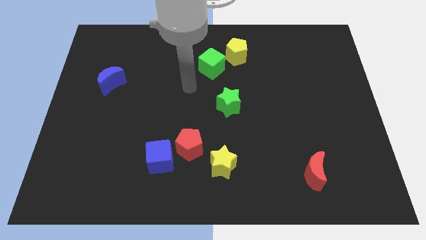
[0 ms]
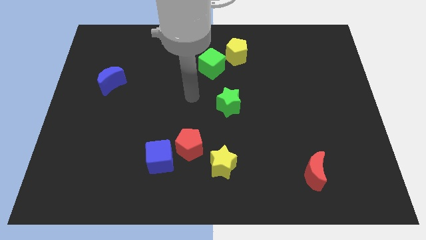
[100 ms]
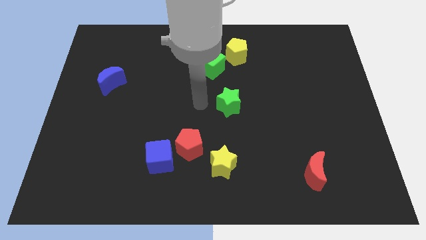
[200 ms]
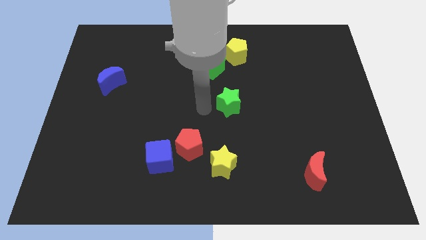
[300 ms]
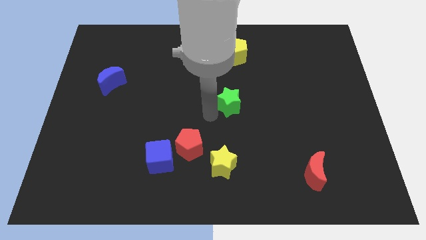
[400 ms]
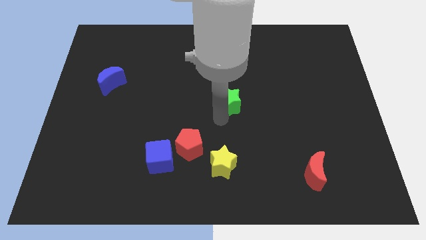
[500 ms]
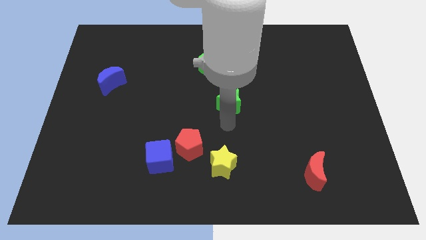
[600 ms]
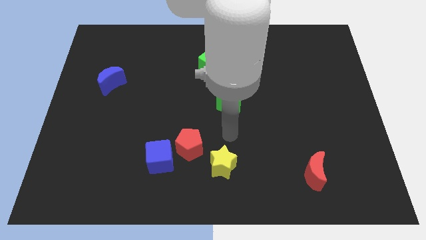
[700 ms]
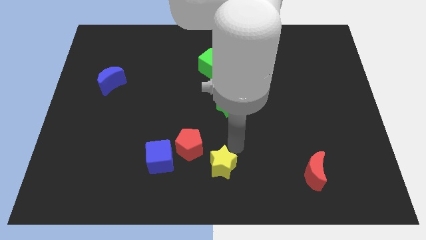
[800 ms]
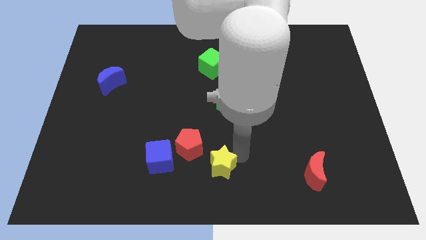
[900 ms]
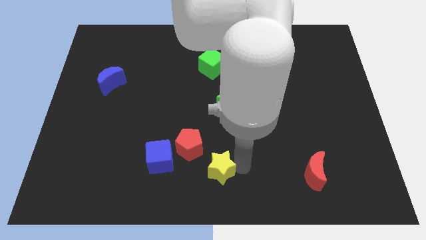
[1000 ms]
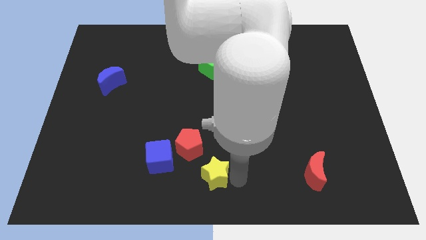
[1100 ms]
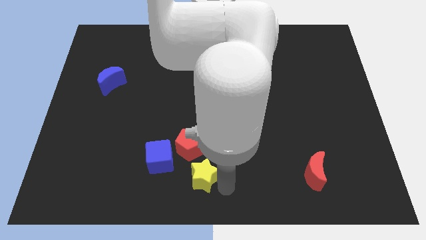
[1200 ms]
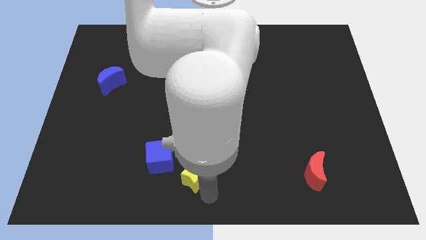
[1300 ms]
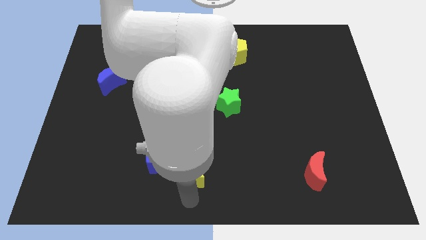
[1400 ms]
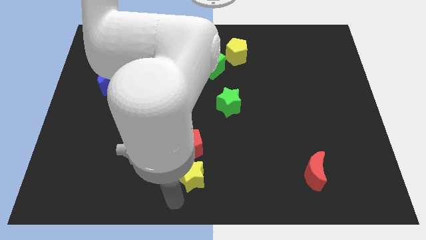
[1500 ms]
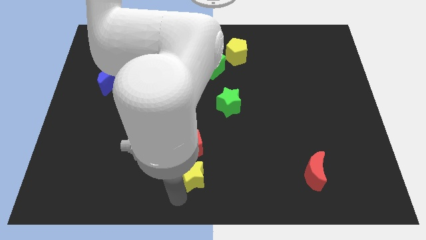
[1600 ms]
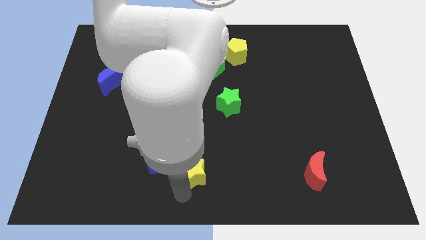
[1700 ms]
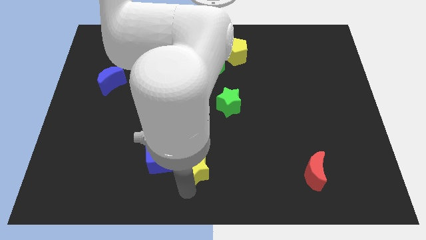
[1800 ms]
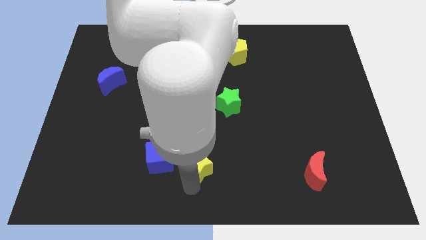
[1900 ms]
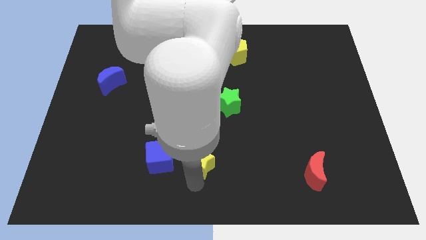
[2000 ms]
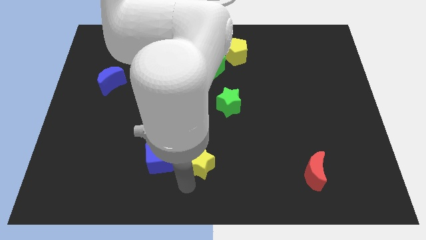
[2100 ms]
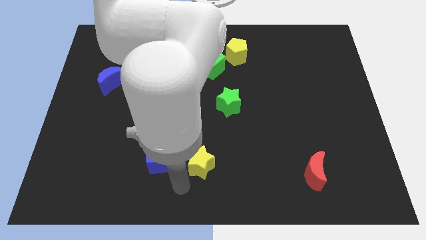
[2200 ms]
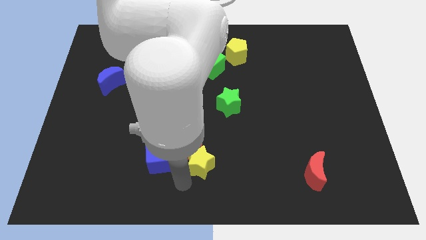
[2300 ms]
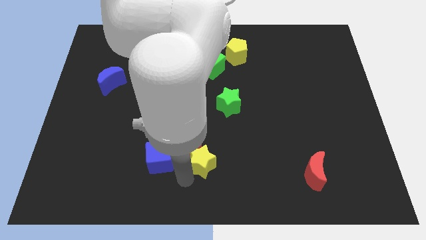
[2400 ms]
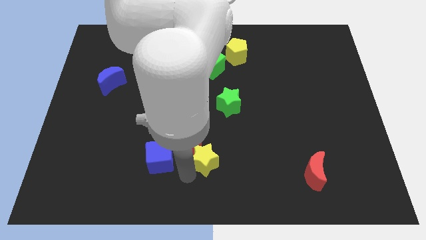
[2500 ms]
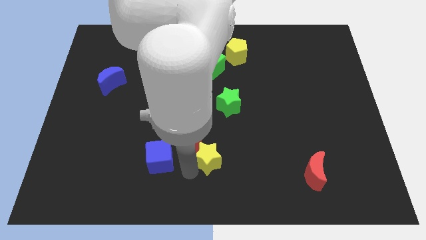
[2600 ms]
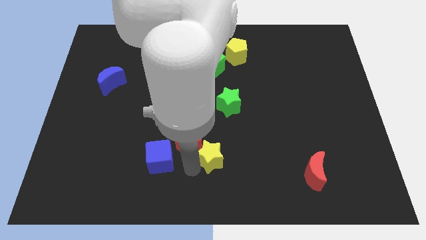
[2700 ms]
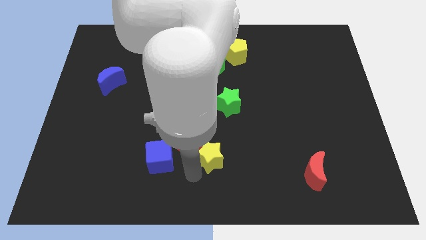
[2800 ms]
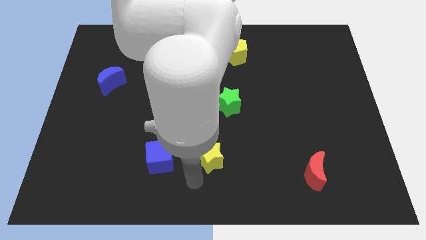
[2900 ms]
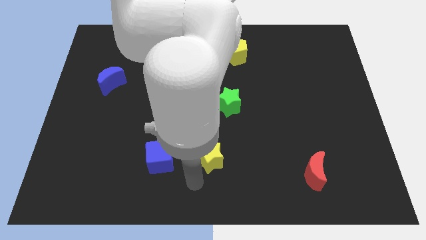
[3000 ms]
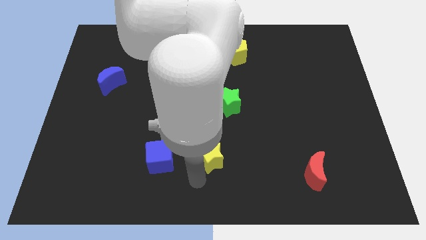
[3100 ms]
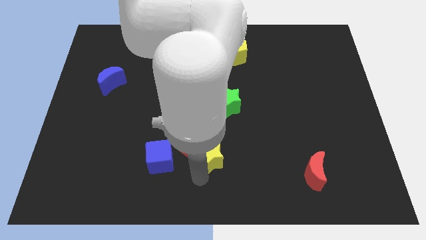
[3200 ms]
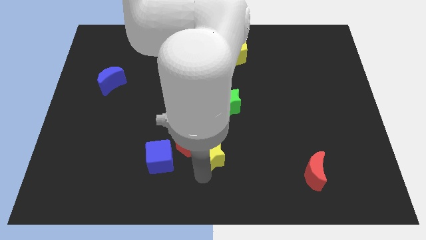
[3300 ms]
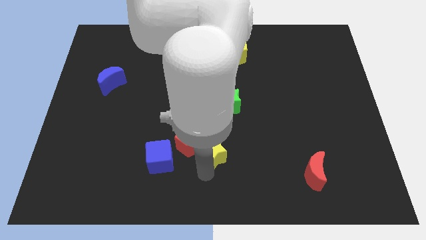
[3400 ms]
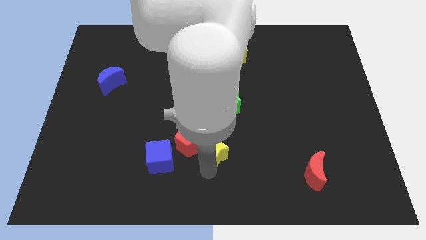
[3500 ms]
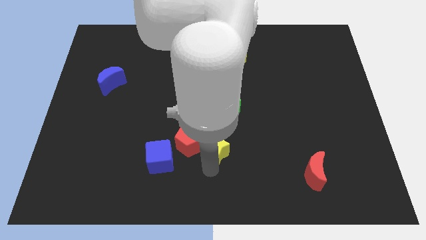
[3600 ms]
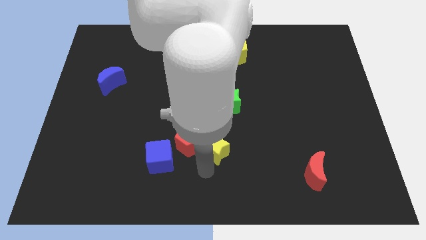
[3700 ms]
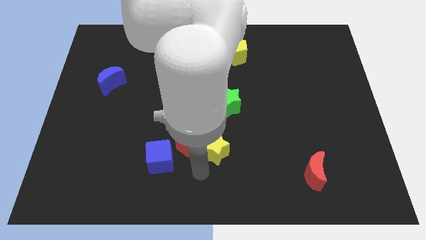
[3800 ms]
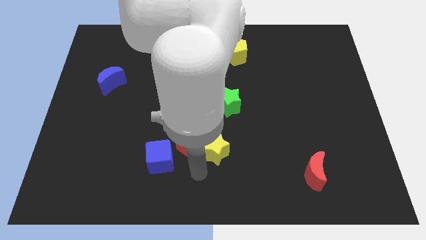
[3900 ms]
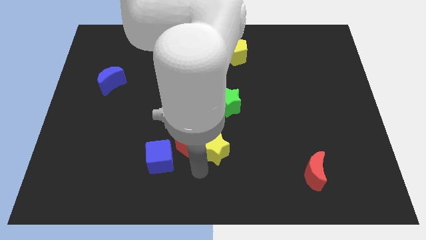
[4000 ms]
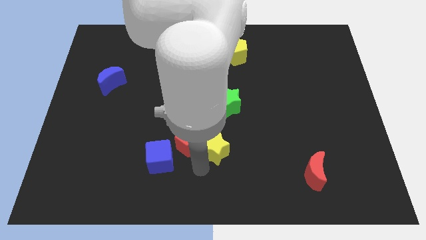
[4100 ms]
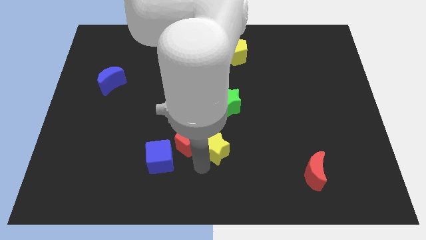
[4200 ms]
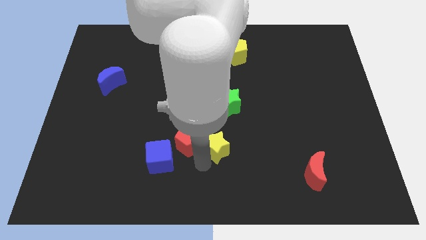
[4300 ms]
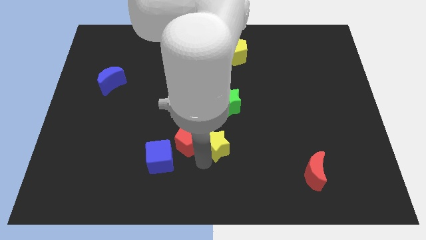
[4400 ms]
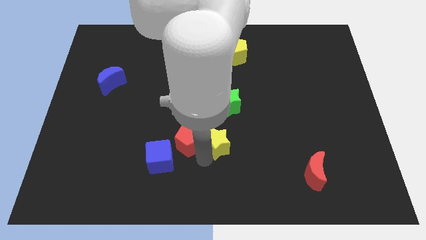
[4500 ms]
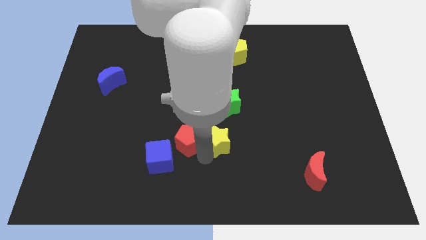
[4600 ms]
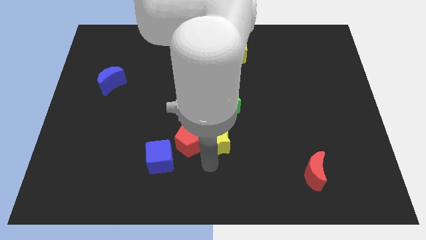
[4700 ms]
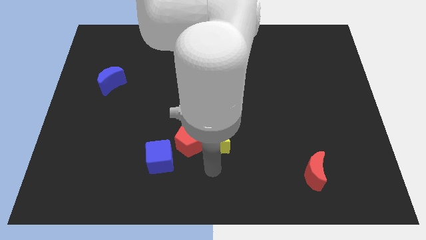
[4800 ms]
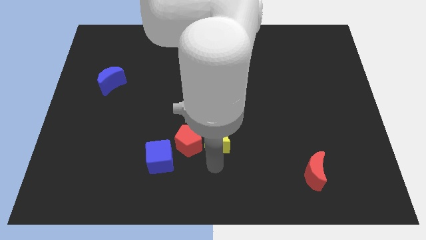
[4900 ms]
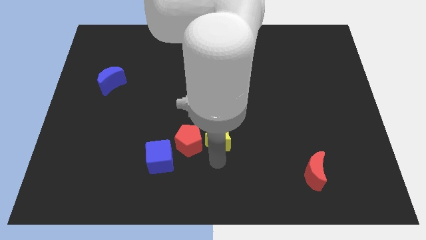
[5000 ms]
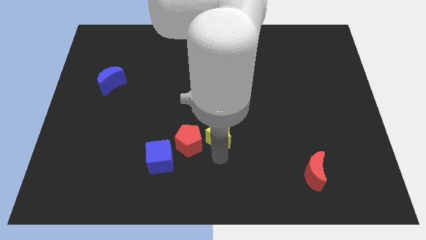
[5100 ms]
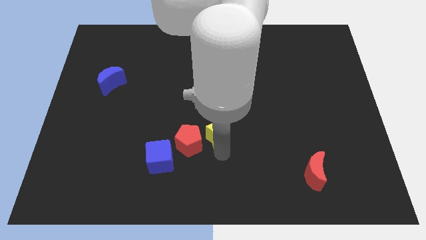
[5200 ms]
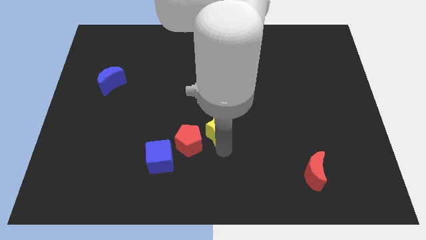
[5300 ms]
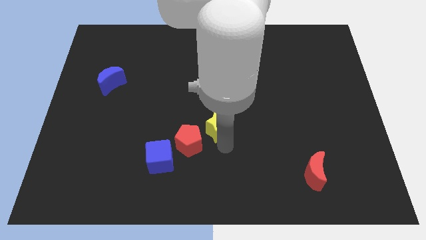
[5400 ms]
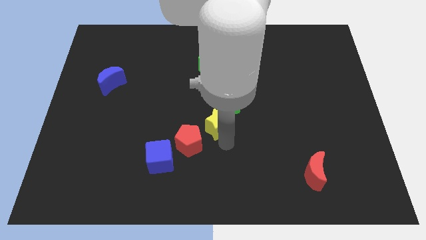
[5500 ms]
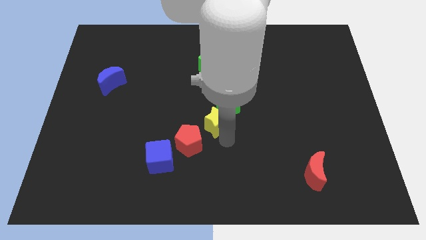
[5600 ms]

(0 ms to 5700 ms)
slide the yellow star close to the green star

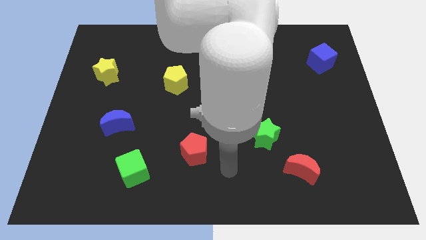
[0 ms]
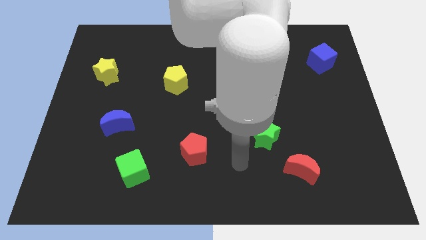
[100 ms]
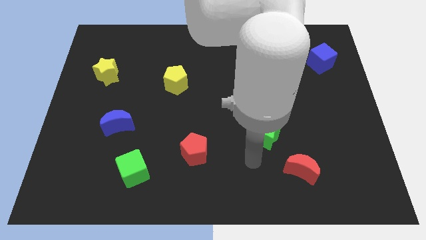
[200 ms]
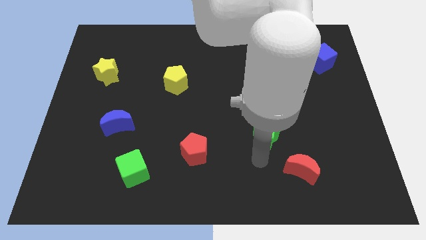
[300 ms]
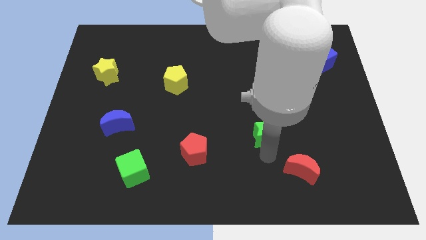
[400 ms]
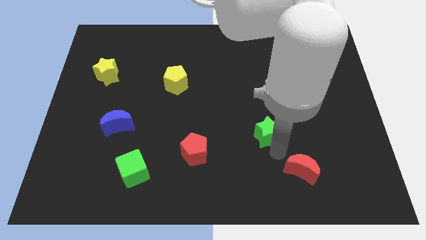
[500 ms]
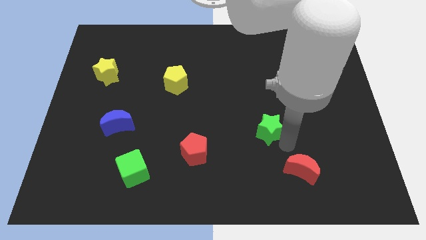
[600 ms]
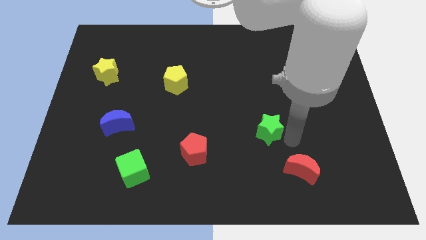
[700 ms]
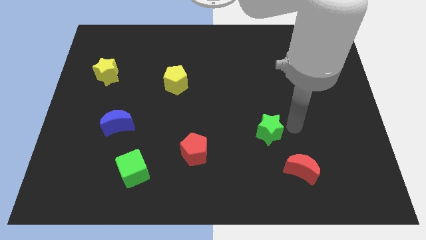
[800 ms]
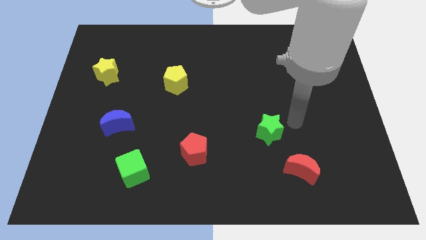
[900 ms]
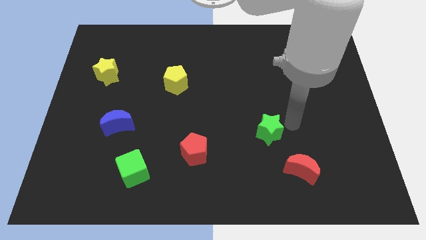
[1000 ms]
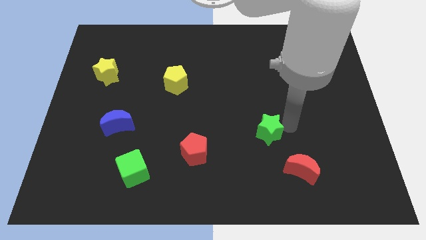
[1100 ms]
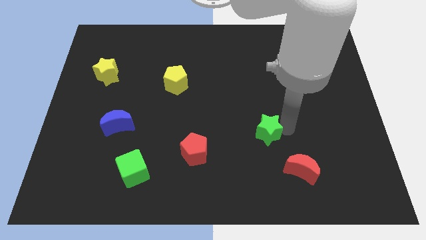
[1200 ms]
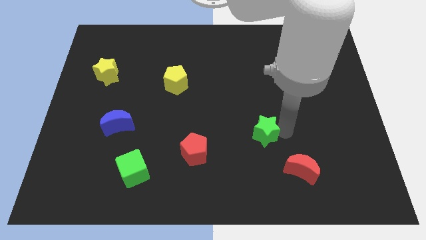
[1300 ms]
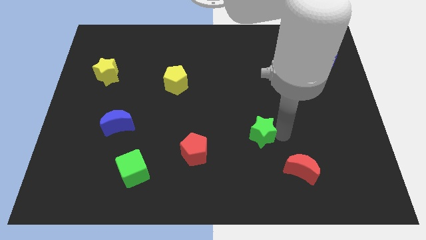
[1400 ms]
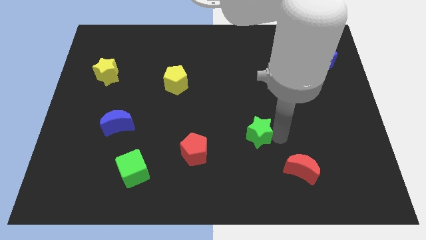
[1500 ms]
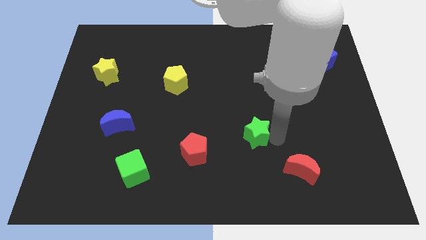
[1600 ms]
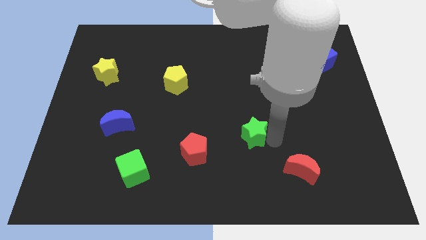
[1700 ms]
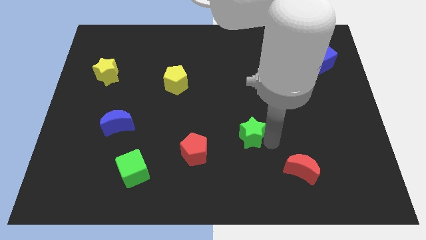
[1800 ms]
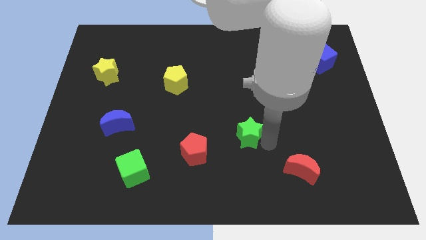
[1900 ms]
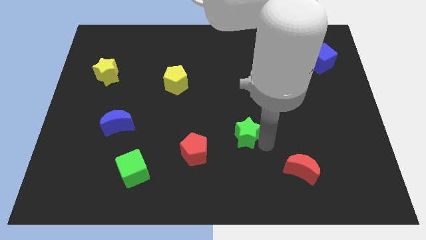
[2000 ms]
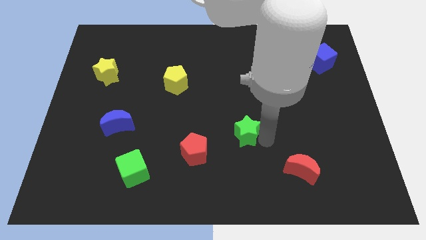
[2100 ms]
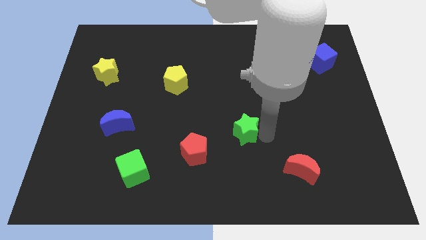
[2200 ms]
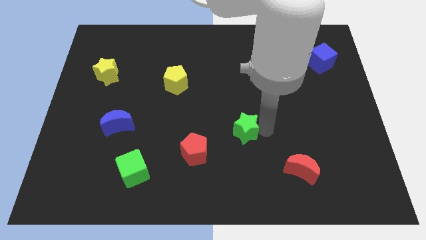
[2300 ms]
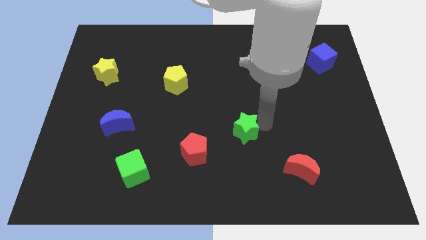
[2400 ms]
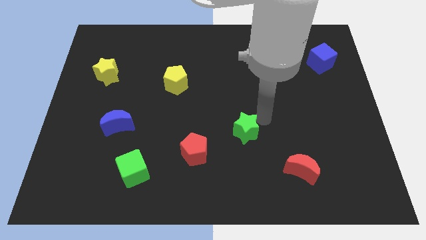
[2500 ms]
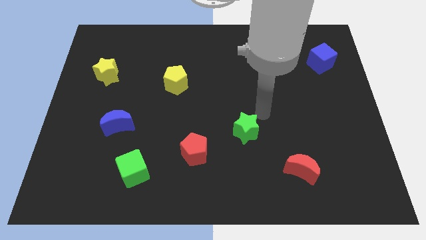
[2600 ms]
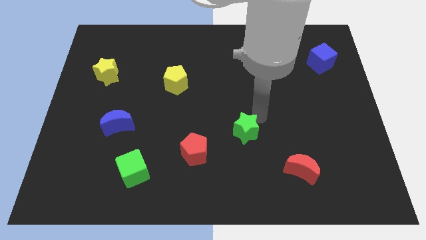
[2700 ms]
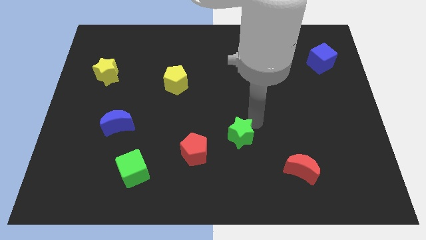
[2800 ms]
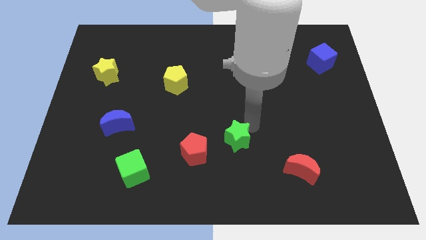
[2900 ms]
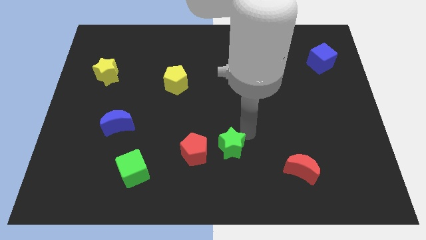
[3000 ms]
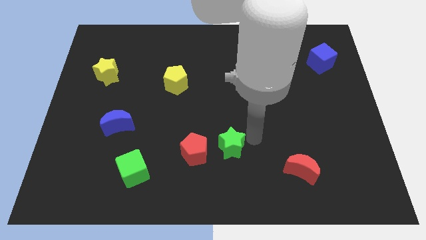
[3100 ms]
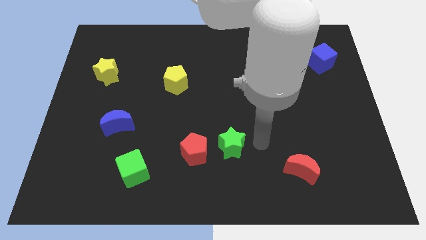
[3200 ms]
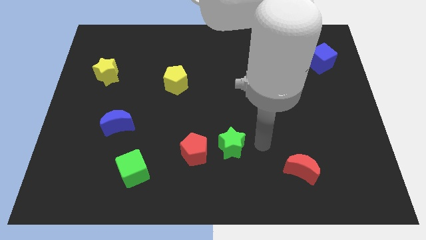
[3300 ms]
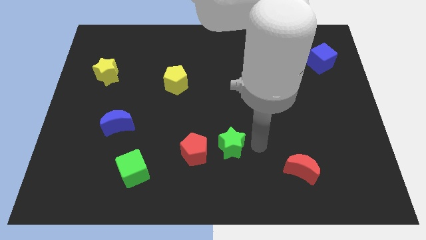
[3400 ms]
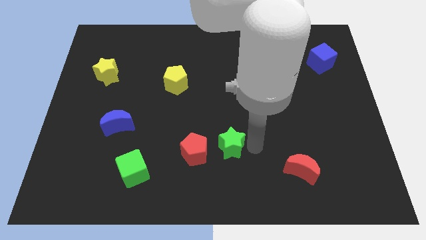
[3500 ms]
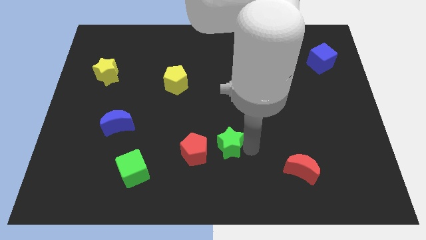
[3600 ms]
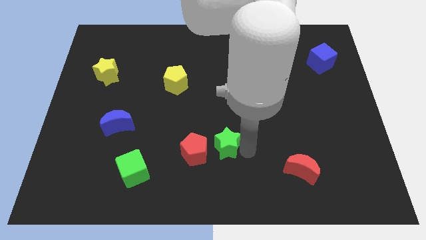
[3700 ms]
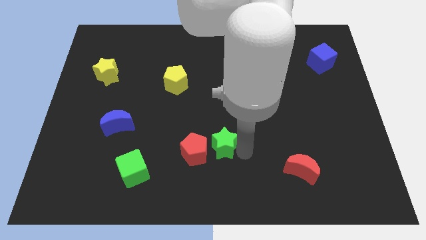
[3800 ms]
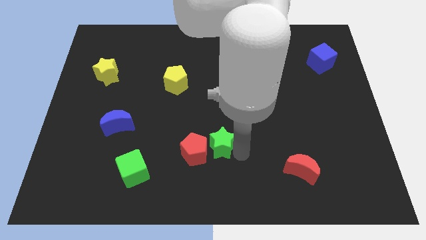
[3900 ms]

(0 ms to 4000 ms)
push the green star next to the red pentagon
